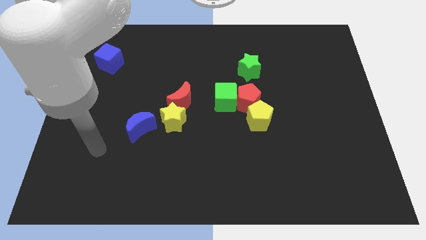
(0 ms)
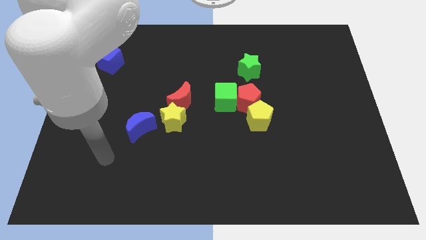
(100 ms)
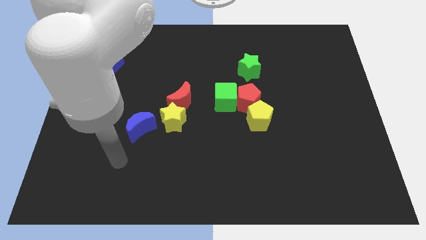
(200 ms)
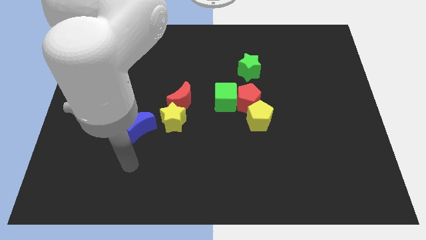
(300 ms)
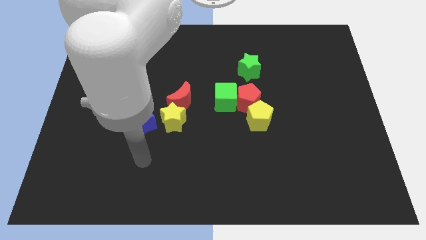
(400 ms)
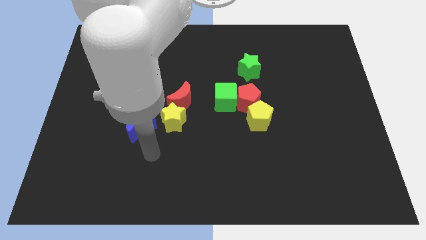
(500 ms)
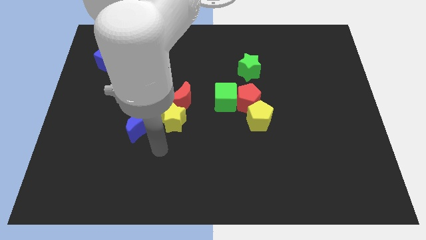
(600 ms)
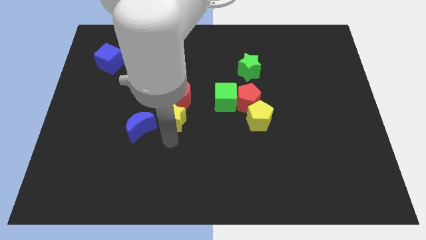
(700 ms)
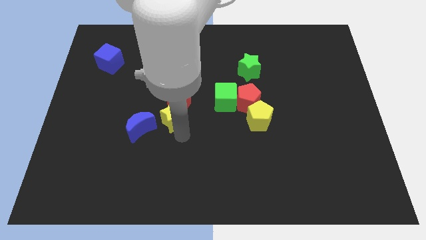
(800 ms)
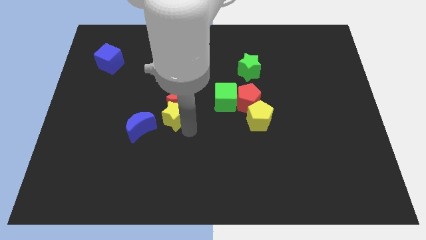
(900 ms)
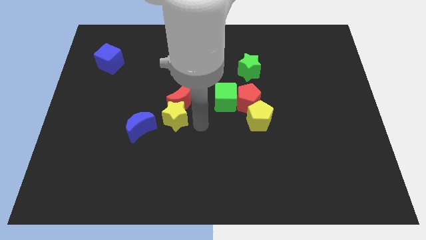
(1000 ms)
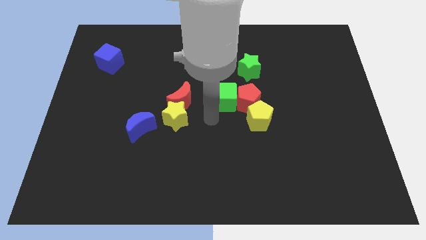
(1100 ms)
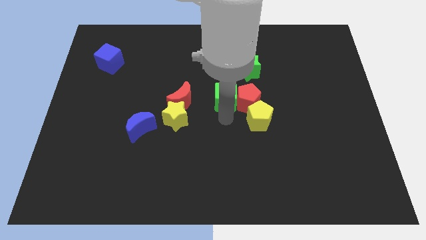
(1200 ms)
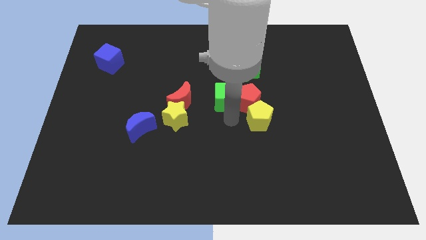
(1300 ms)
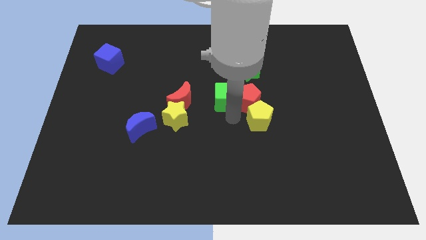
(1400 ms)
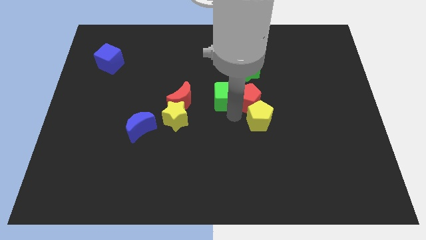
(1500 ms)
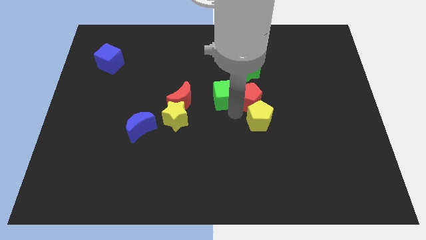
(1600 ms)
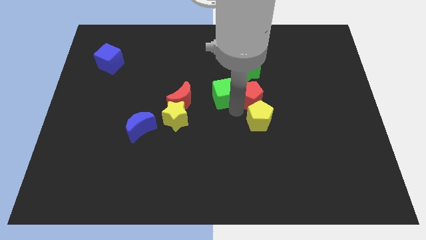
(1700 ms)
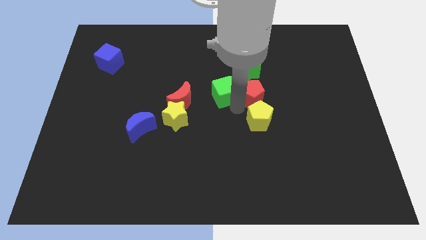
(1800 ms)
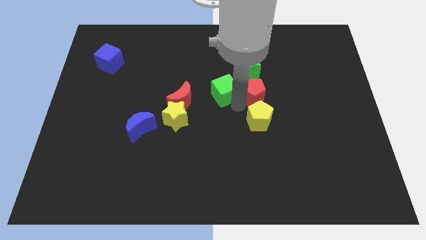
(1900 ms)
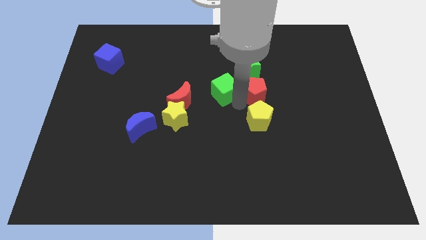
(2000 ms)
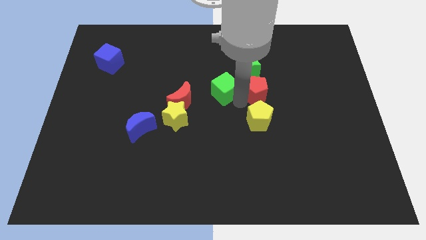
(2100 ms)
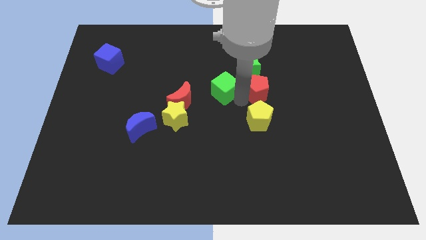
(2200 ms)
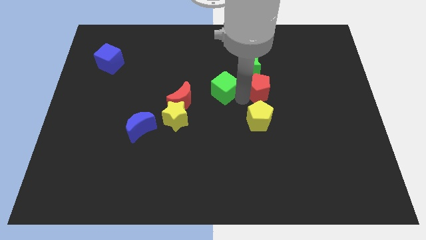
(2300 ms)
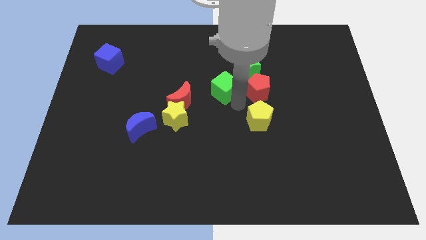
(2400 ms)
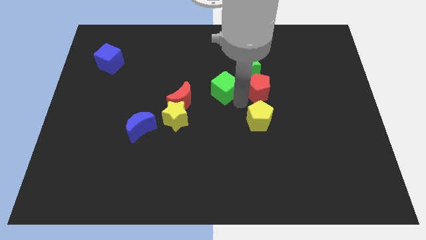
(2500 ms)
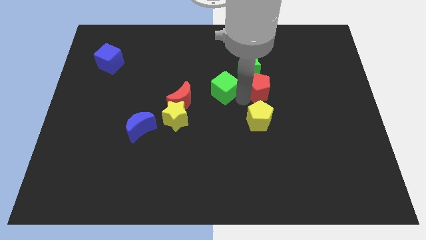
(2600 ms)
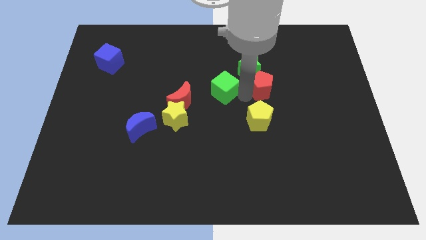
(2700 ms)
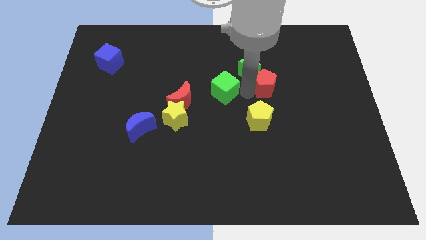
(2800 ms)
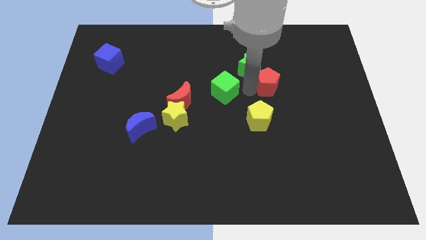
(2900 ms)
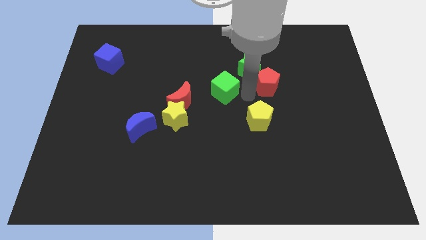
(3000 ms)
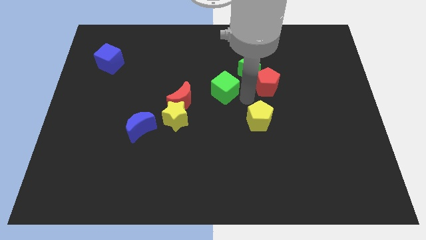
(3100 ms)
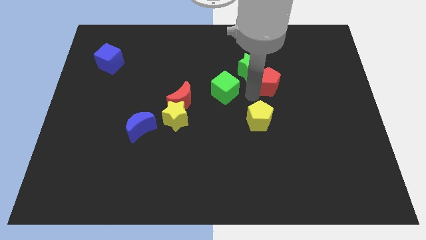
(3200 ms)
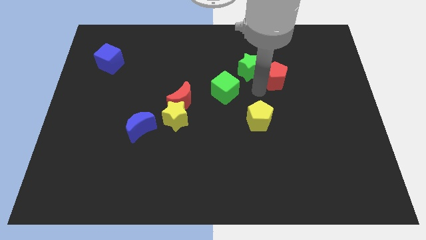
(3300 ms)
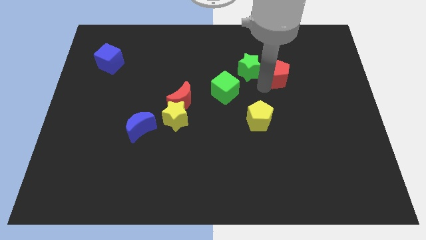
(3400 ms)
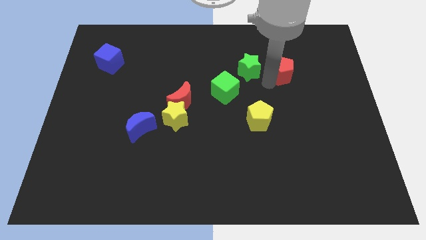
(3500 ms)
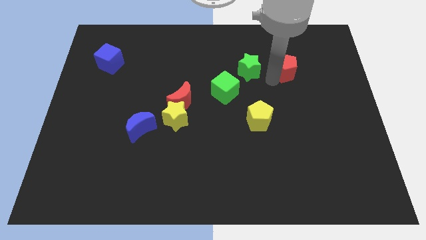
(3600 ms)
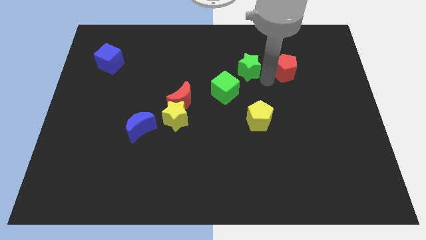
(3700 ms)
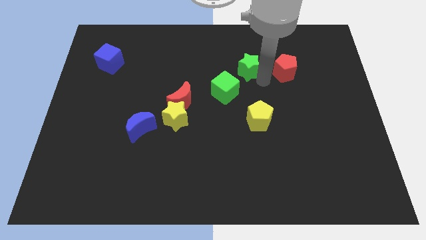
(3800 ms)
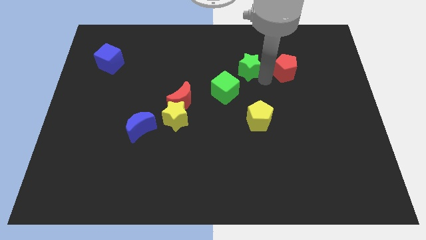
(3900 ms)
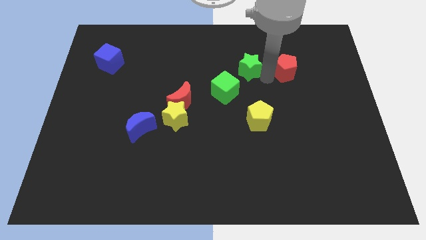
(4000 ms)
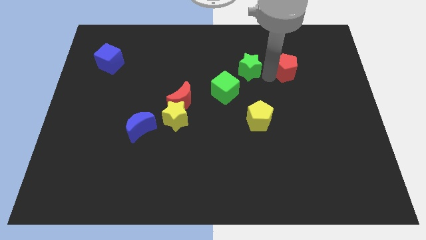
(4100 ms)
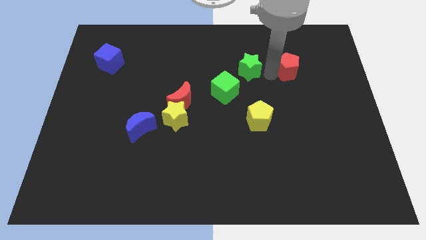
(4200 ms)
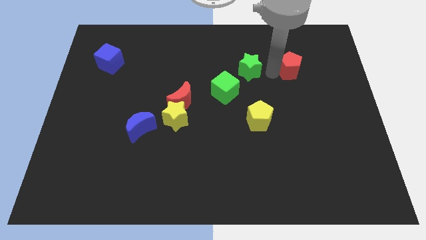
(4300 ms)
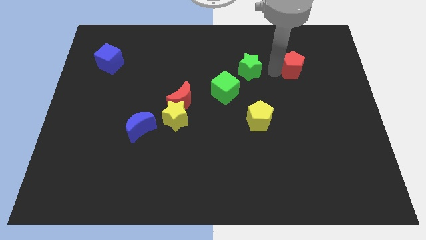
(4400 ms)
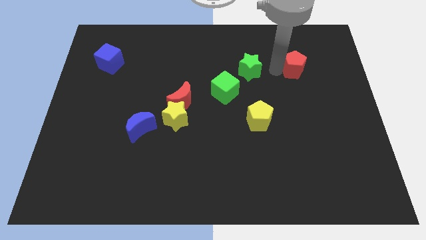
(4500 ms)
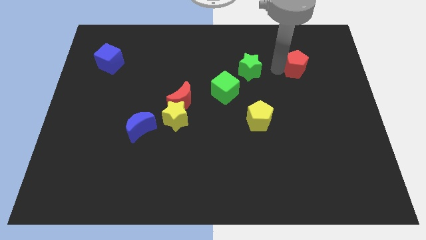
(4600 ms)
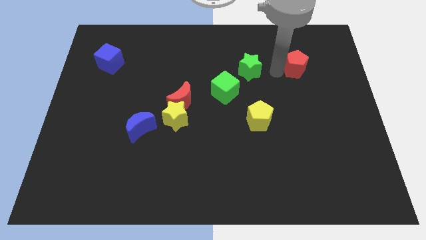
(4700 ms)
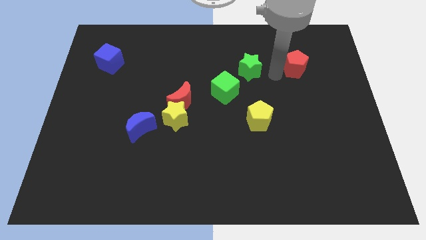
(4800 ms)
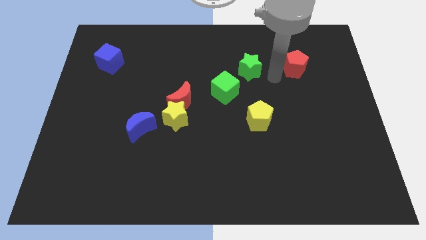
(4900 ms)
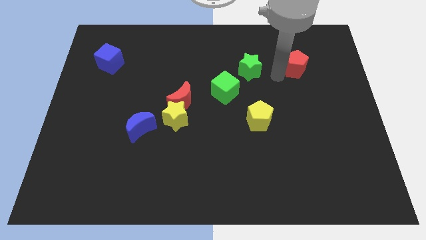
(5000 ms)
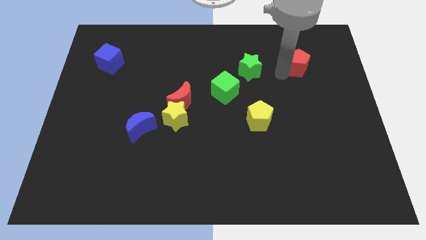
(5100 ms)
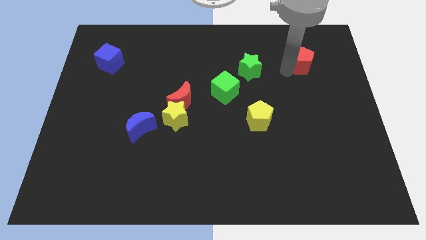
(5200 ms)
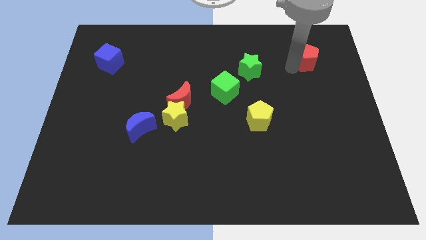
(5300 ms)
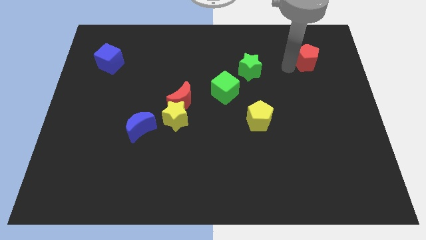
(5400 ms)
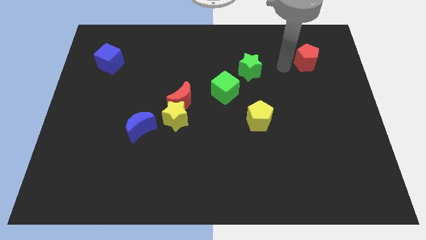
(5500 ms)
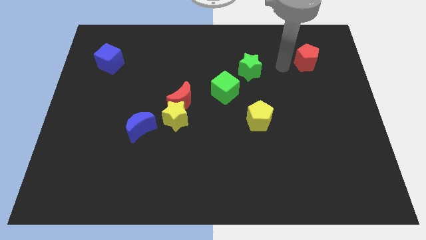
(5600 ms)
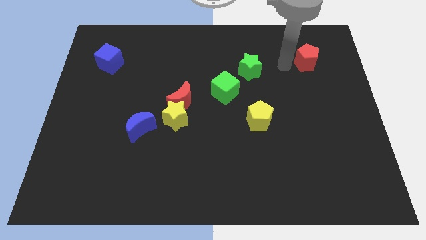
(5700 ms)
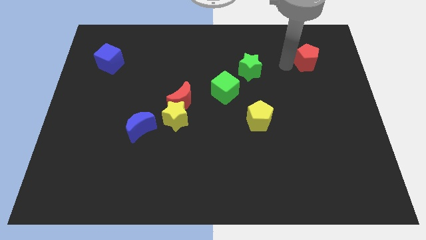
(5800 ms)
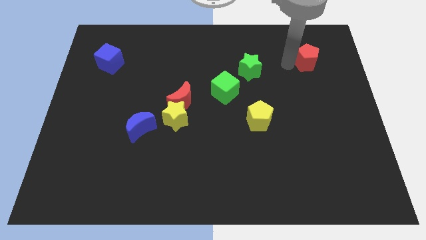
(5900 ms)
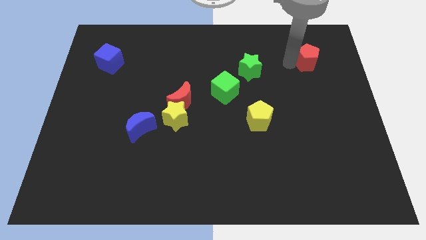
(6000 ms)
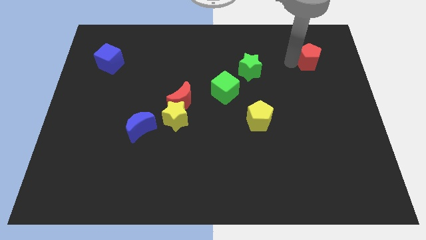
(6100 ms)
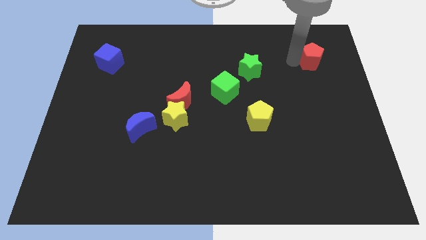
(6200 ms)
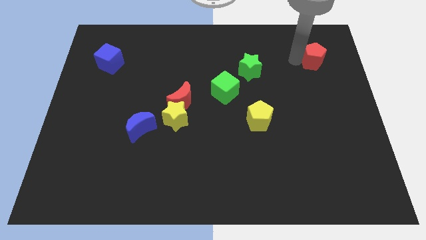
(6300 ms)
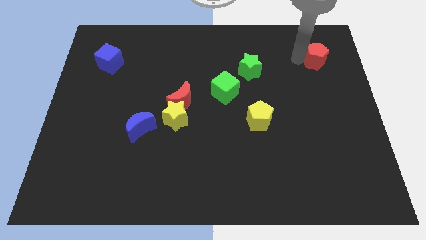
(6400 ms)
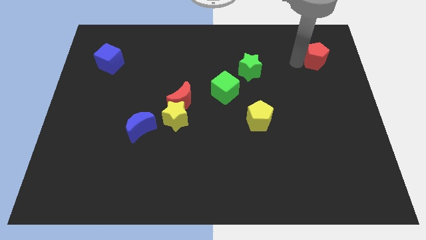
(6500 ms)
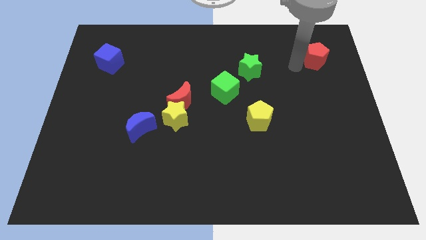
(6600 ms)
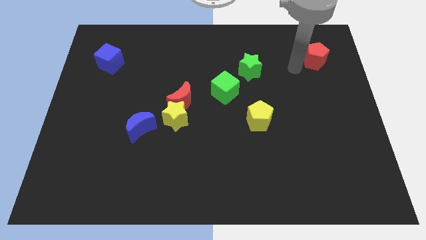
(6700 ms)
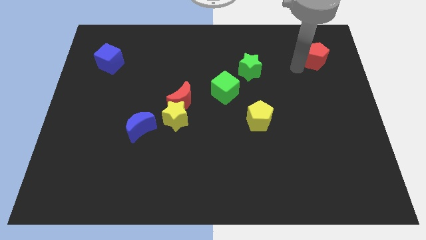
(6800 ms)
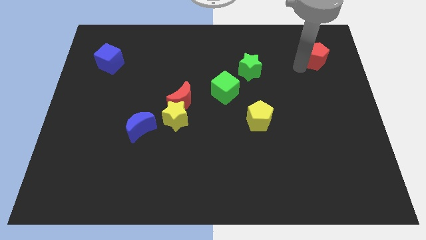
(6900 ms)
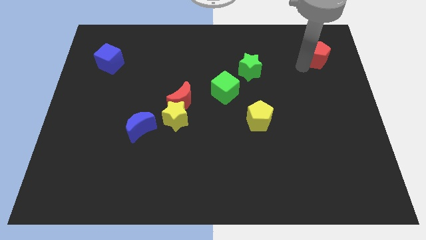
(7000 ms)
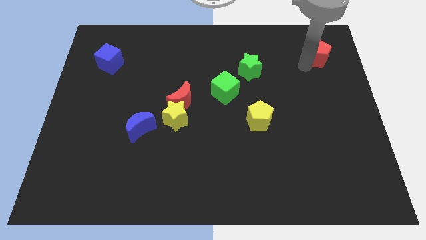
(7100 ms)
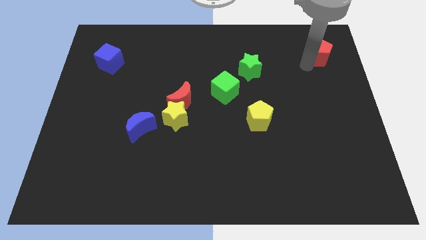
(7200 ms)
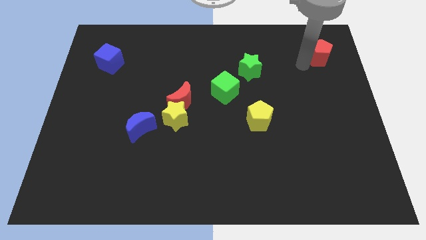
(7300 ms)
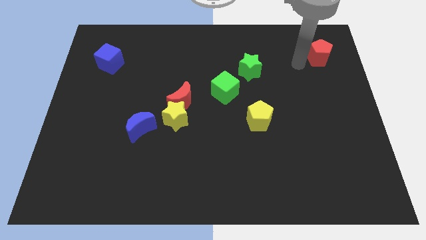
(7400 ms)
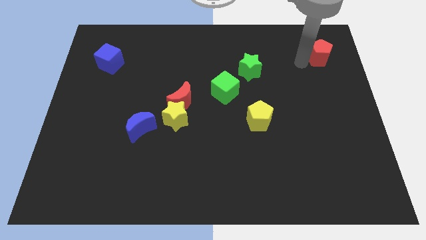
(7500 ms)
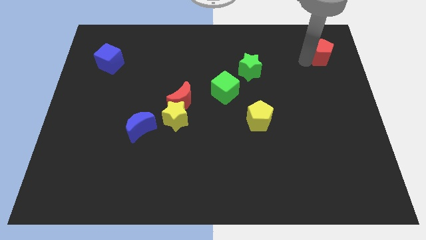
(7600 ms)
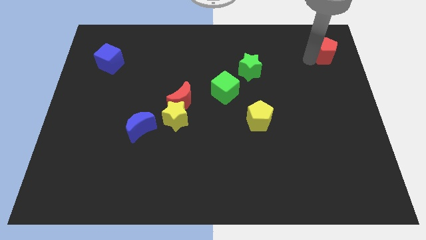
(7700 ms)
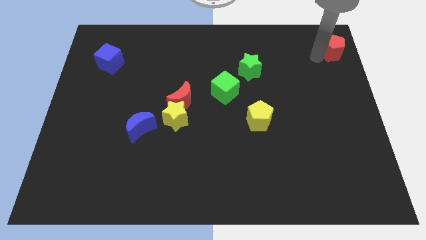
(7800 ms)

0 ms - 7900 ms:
move the red pentagon to the top right of the board
